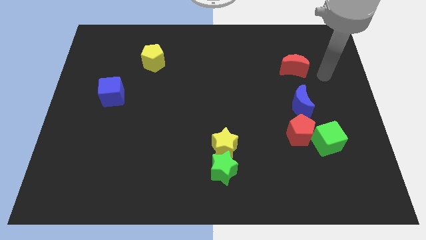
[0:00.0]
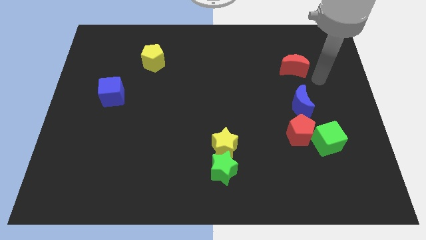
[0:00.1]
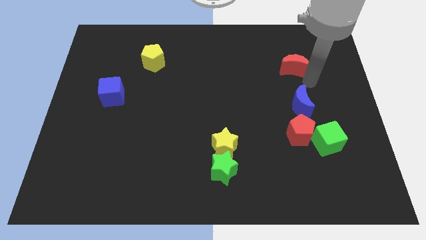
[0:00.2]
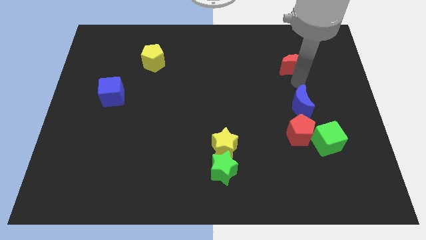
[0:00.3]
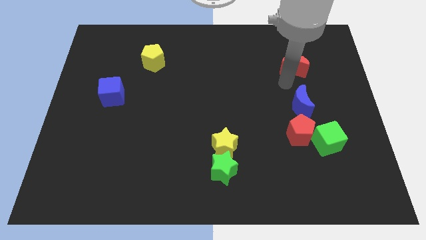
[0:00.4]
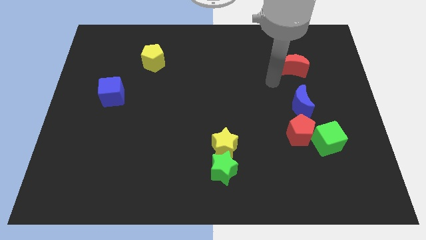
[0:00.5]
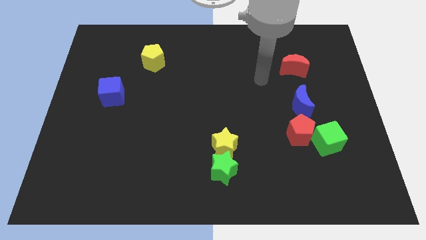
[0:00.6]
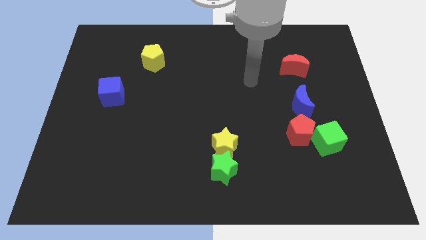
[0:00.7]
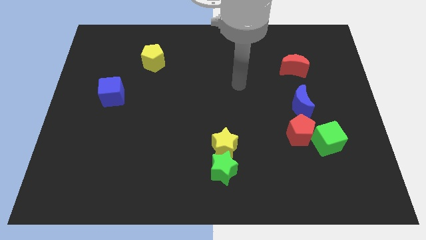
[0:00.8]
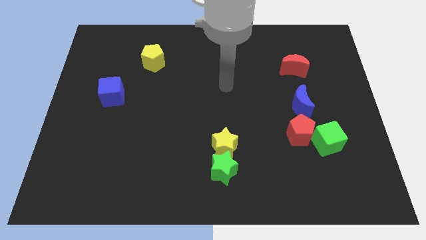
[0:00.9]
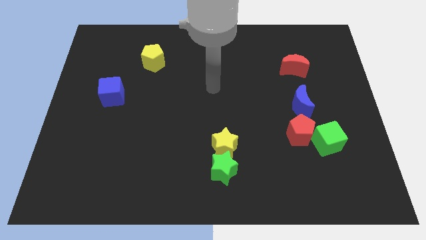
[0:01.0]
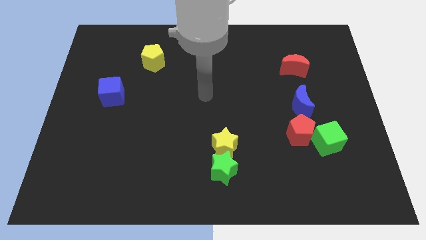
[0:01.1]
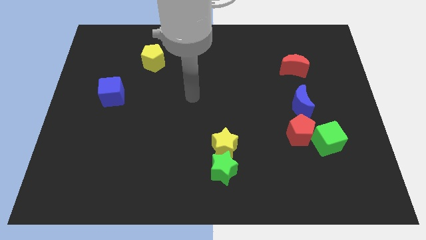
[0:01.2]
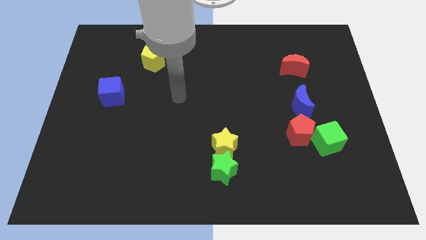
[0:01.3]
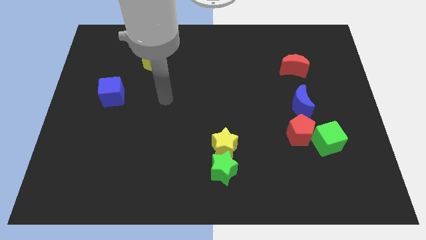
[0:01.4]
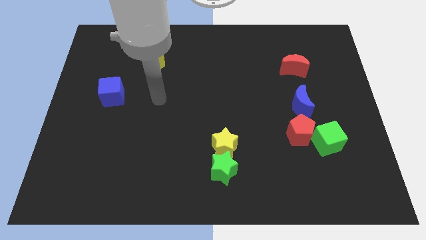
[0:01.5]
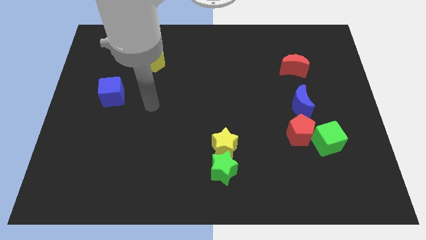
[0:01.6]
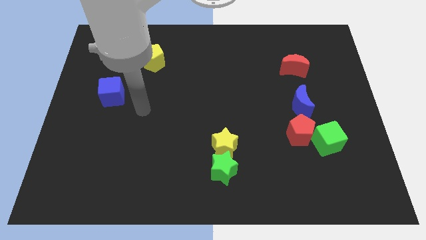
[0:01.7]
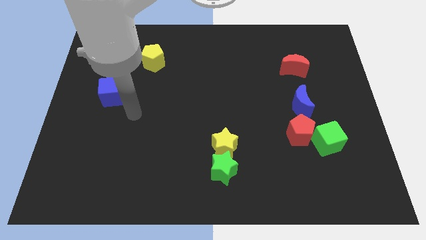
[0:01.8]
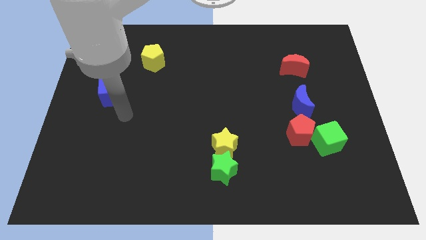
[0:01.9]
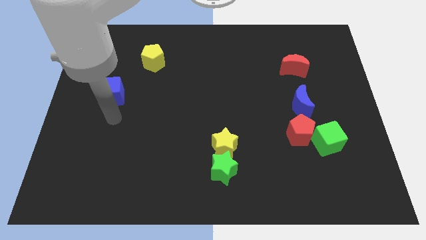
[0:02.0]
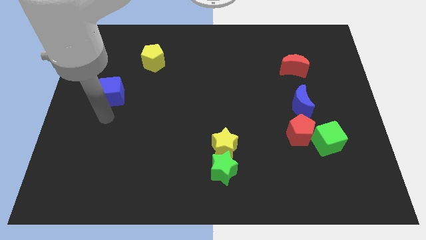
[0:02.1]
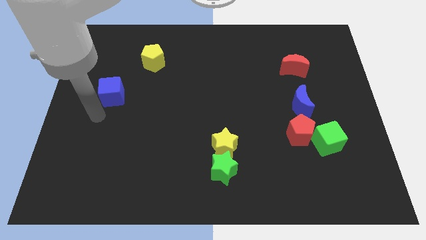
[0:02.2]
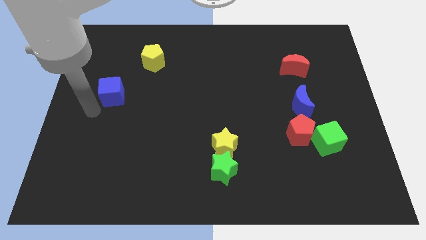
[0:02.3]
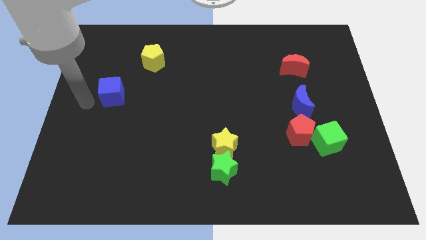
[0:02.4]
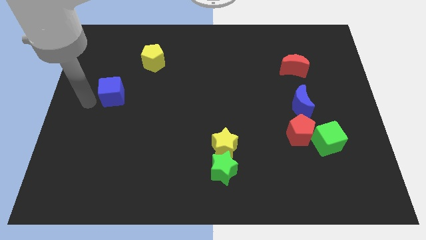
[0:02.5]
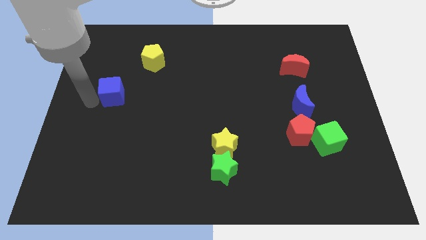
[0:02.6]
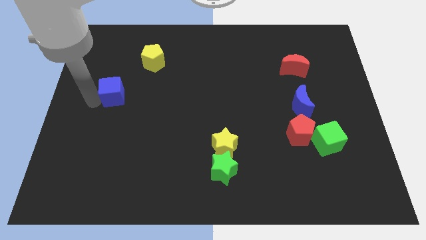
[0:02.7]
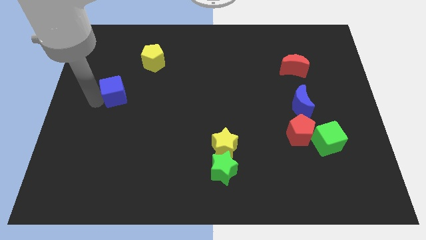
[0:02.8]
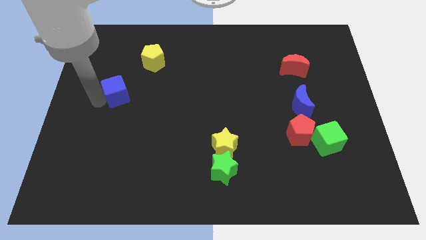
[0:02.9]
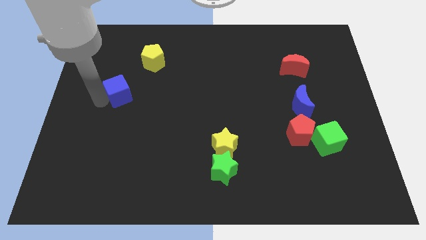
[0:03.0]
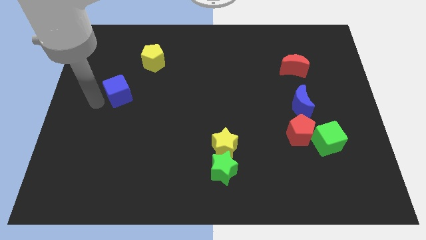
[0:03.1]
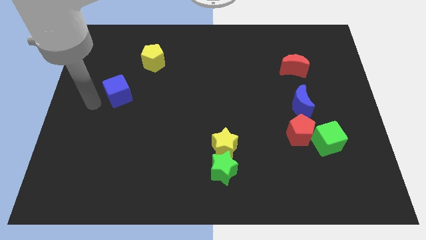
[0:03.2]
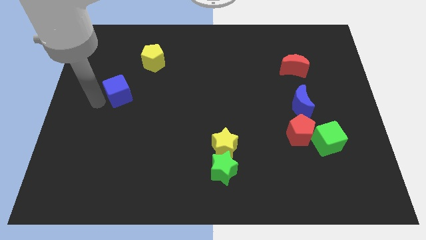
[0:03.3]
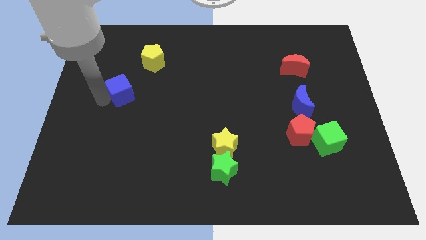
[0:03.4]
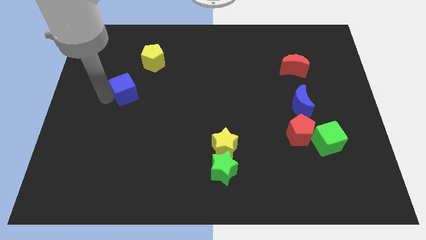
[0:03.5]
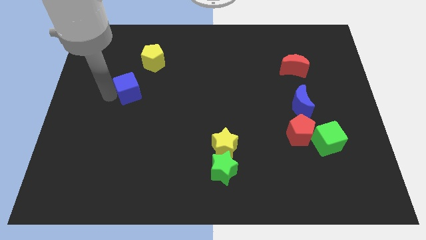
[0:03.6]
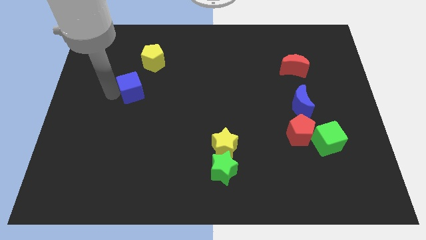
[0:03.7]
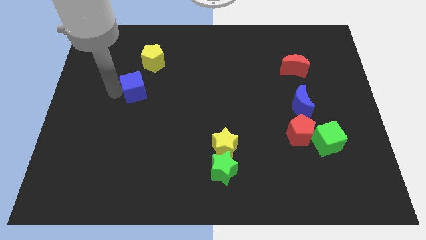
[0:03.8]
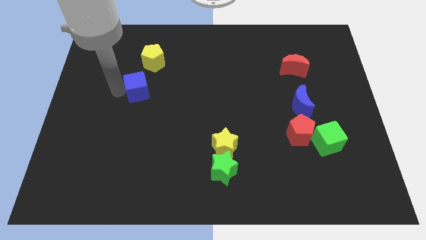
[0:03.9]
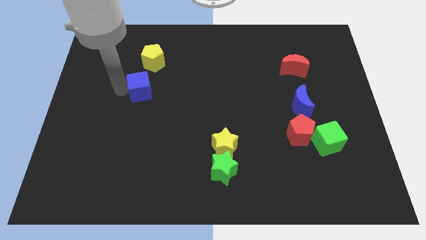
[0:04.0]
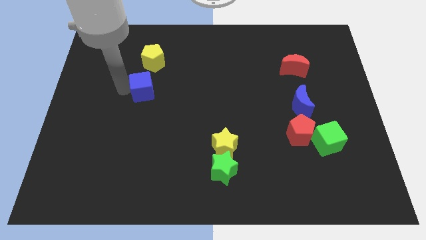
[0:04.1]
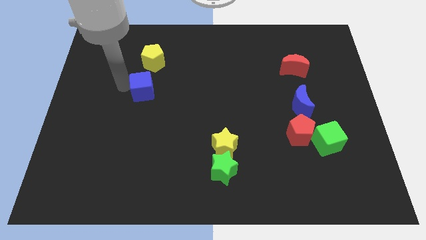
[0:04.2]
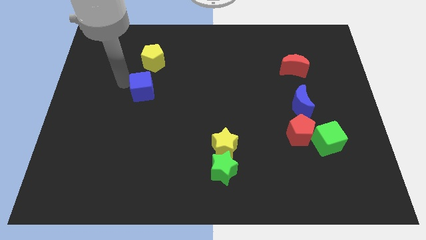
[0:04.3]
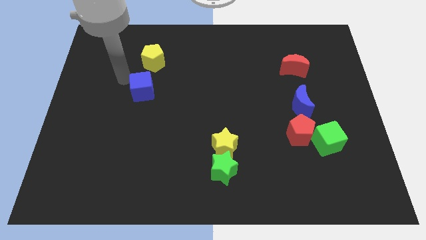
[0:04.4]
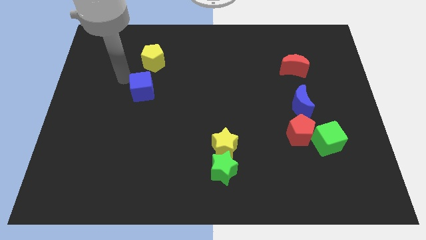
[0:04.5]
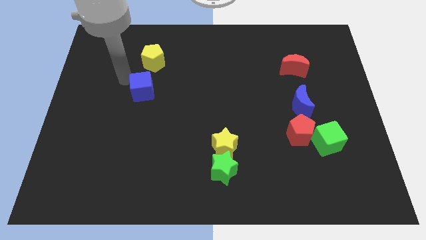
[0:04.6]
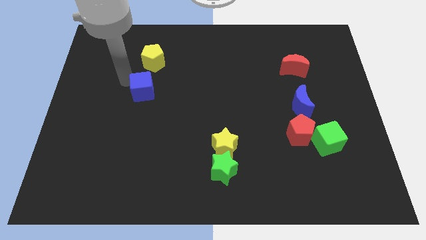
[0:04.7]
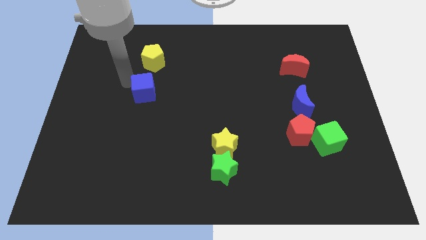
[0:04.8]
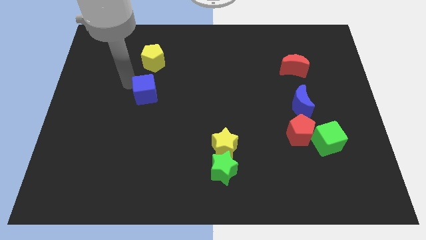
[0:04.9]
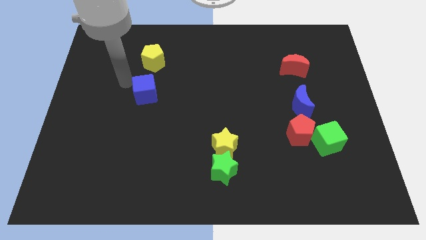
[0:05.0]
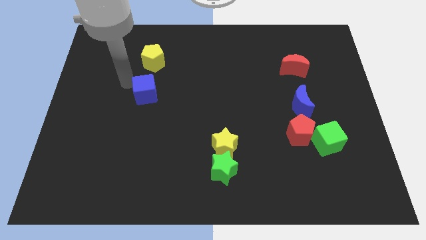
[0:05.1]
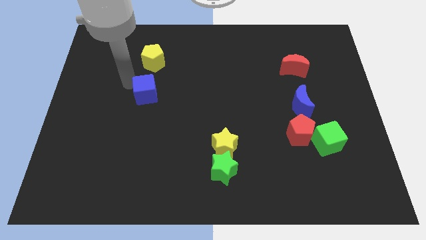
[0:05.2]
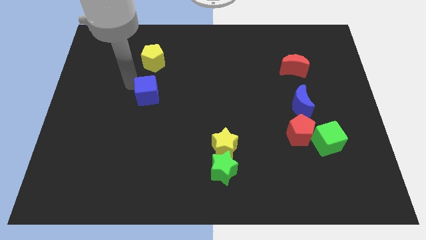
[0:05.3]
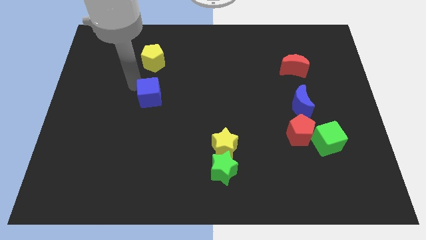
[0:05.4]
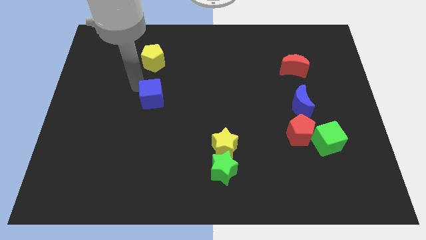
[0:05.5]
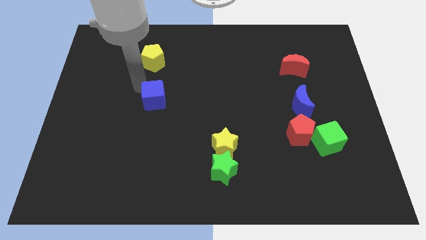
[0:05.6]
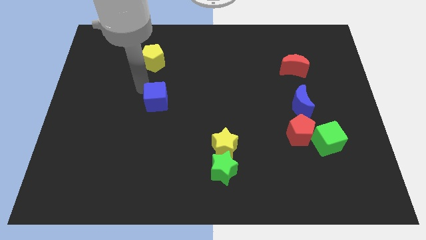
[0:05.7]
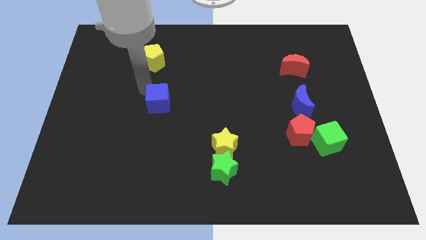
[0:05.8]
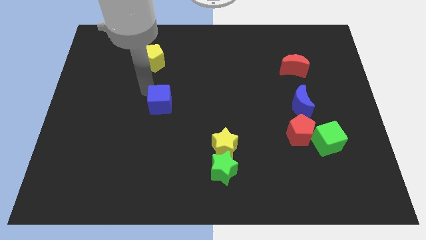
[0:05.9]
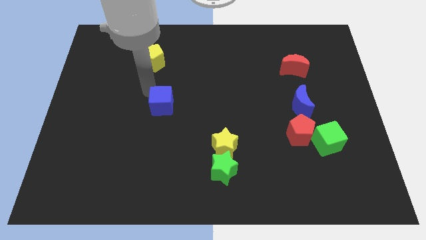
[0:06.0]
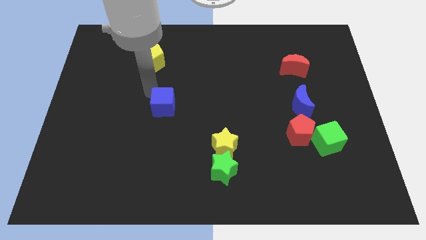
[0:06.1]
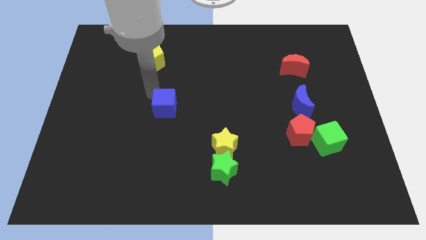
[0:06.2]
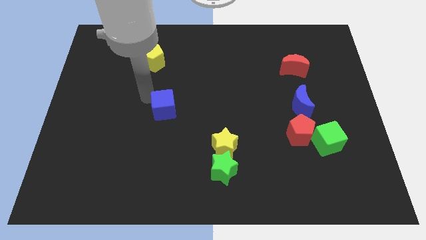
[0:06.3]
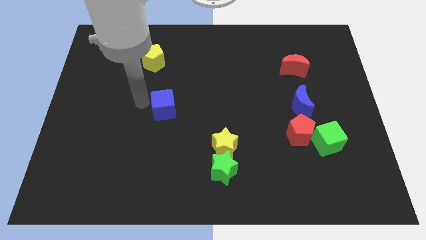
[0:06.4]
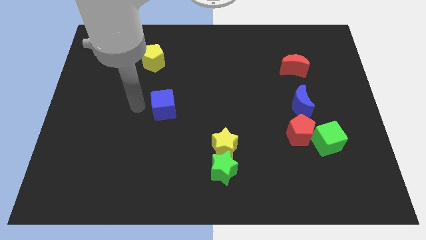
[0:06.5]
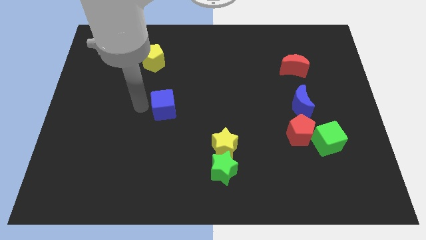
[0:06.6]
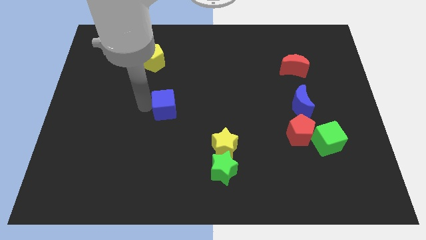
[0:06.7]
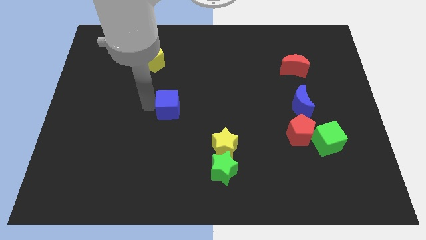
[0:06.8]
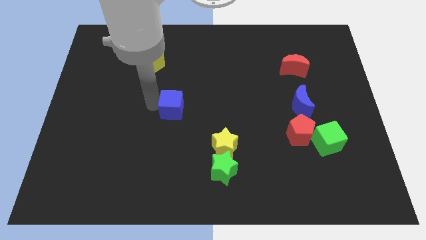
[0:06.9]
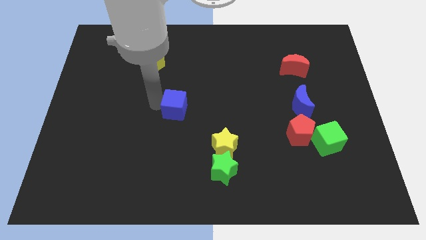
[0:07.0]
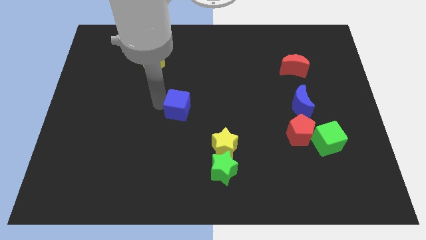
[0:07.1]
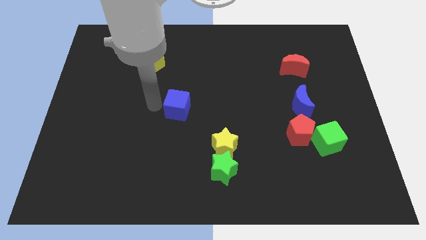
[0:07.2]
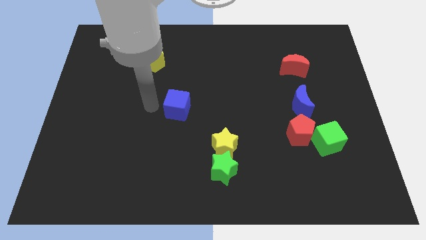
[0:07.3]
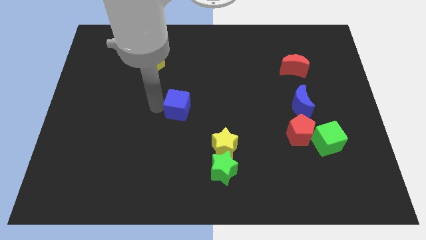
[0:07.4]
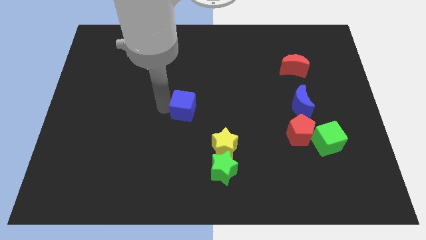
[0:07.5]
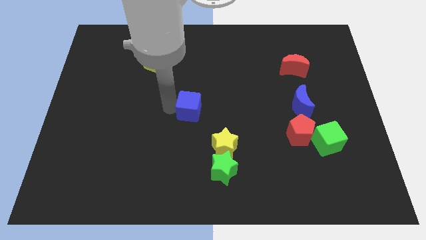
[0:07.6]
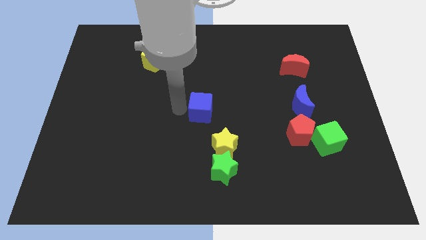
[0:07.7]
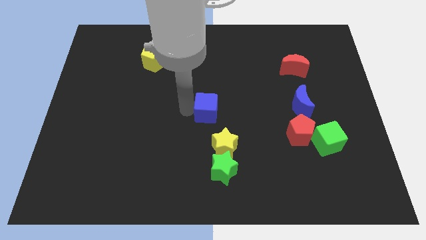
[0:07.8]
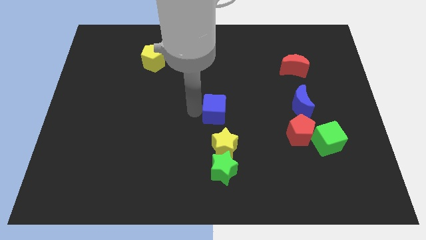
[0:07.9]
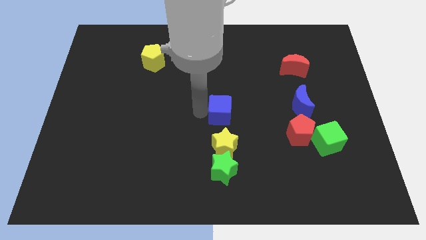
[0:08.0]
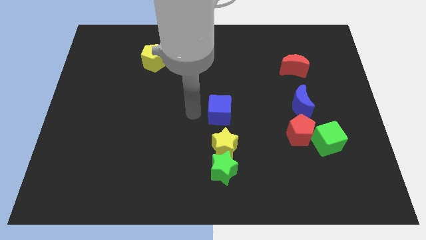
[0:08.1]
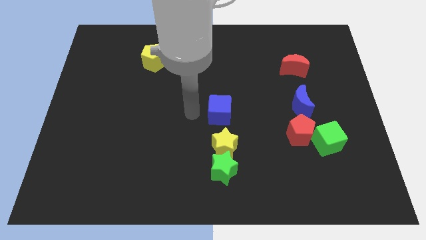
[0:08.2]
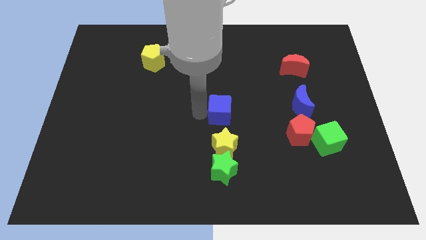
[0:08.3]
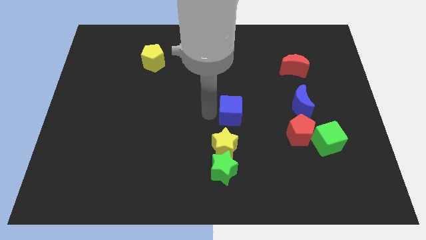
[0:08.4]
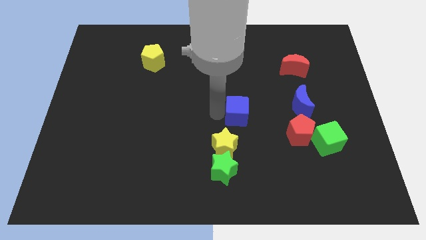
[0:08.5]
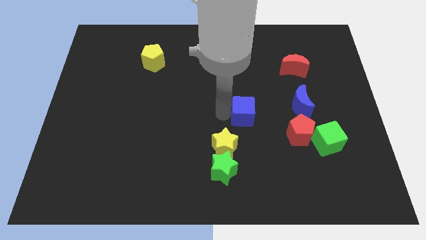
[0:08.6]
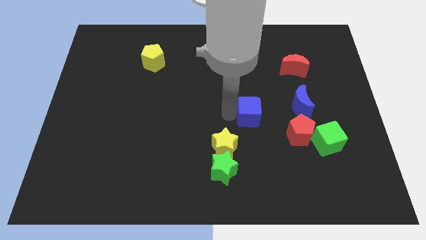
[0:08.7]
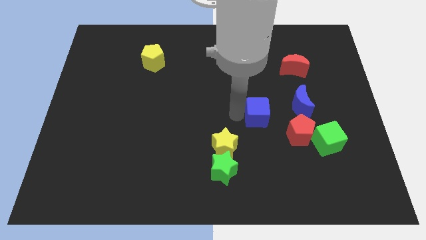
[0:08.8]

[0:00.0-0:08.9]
slide the blue cube diagonally up and to the left of the red pentagon
